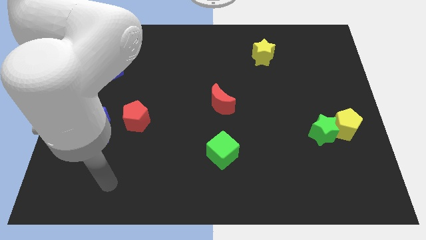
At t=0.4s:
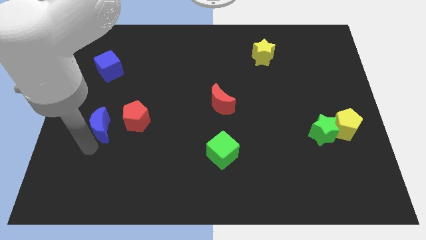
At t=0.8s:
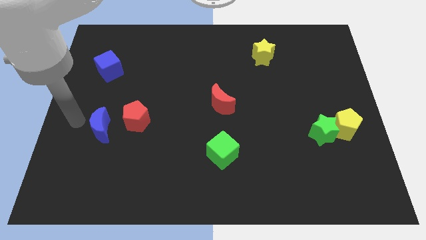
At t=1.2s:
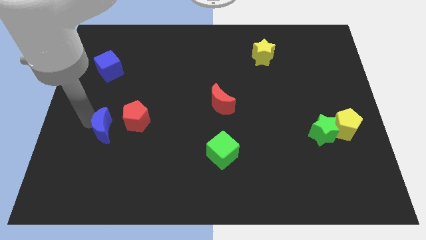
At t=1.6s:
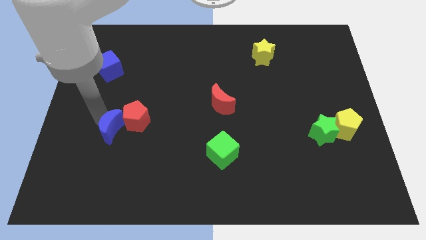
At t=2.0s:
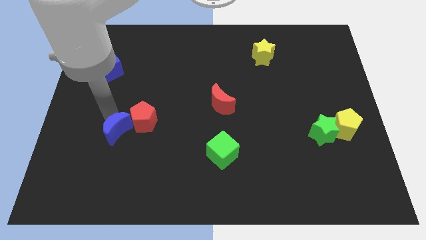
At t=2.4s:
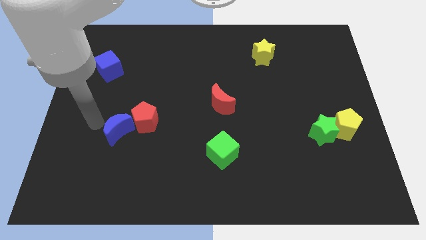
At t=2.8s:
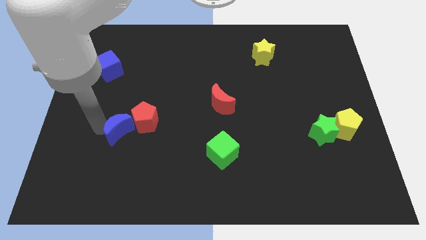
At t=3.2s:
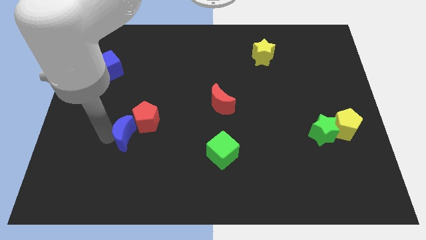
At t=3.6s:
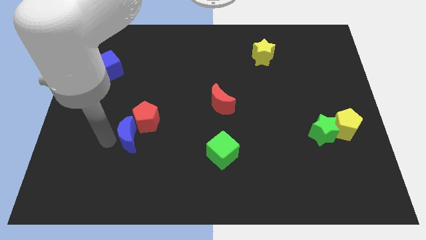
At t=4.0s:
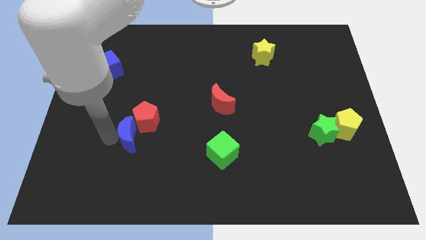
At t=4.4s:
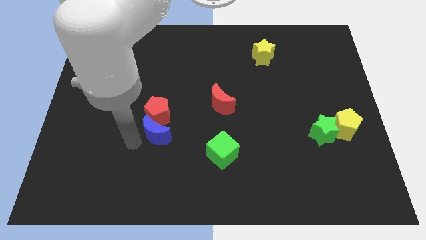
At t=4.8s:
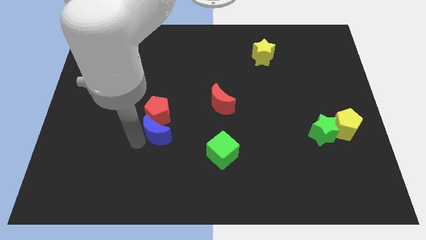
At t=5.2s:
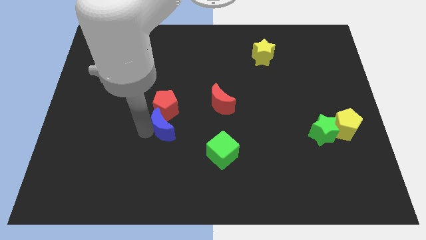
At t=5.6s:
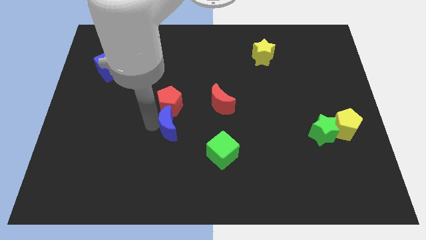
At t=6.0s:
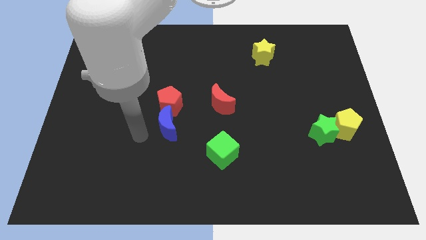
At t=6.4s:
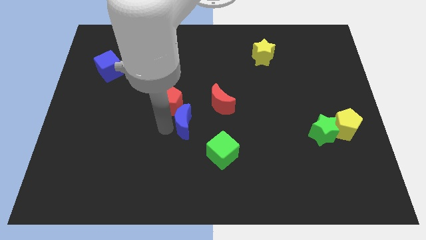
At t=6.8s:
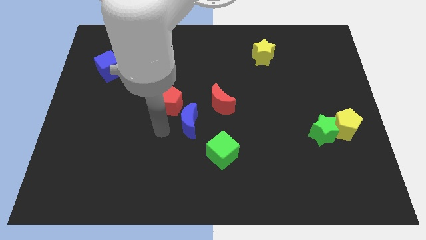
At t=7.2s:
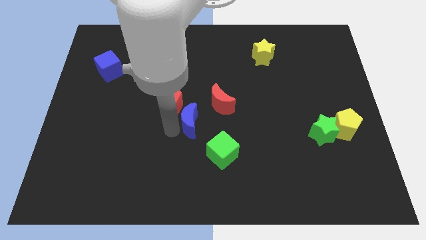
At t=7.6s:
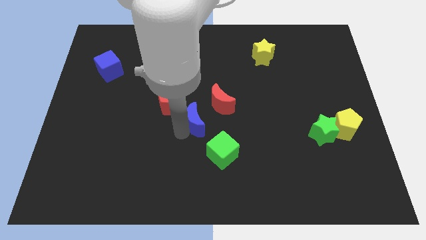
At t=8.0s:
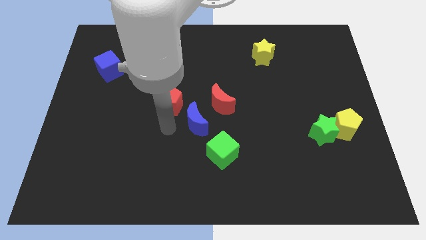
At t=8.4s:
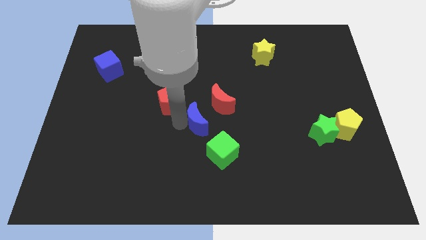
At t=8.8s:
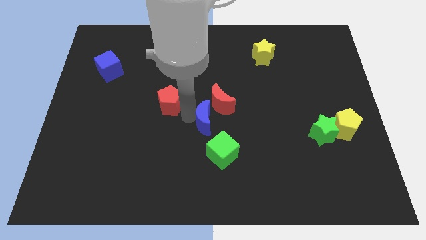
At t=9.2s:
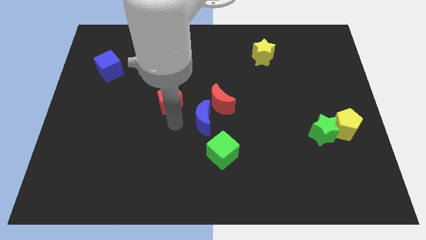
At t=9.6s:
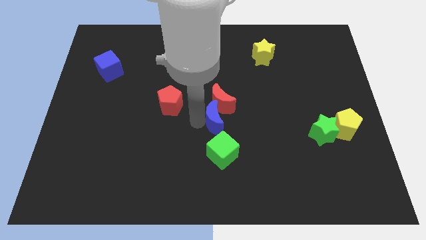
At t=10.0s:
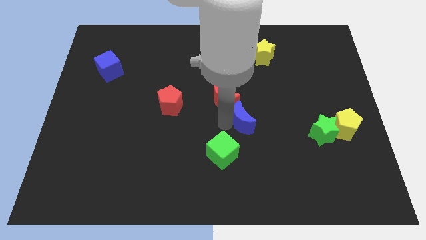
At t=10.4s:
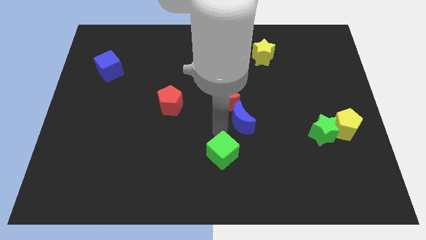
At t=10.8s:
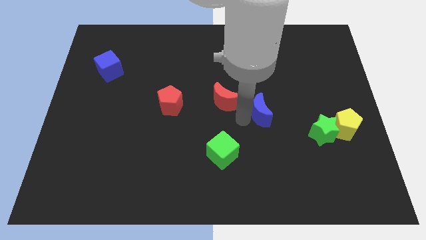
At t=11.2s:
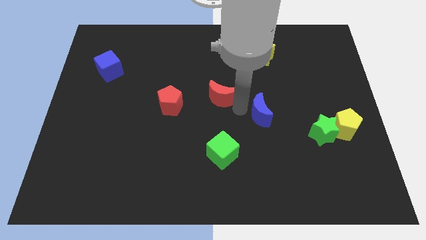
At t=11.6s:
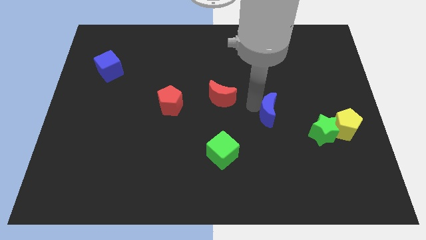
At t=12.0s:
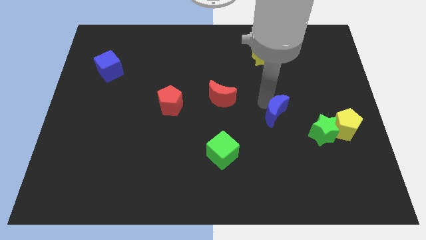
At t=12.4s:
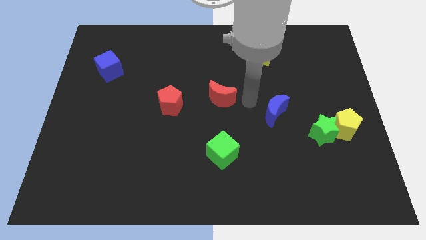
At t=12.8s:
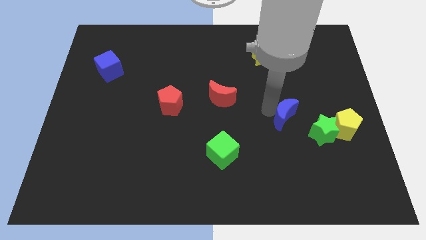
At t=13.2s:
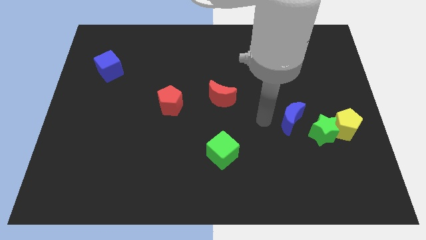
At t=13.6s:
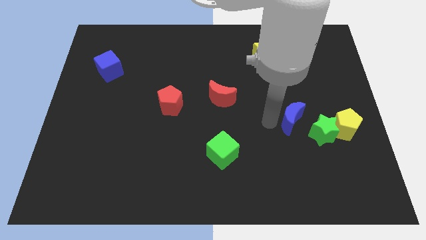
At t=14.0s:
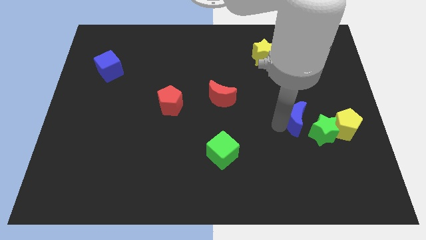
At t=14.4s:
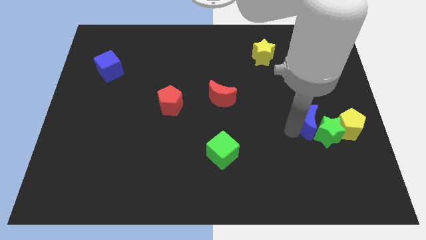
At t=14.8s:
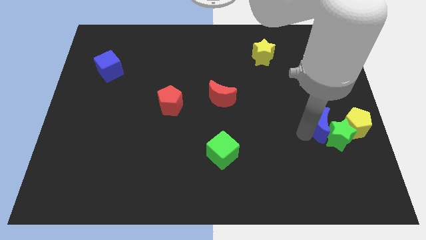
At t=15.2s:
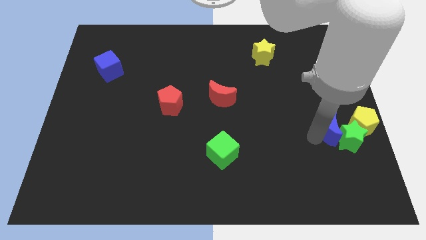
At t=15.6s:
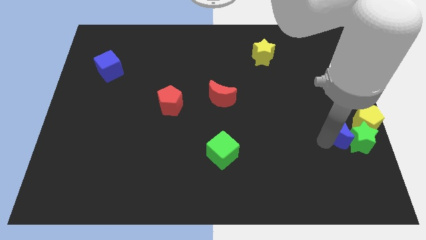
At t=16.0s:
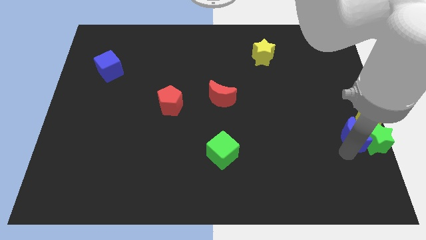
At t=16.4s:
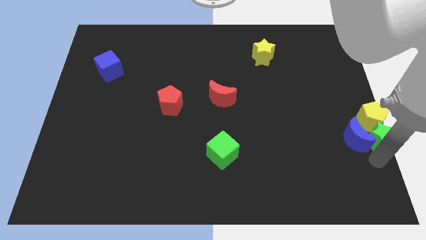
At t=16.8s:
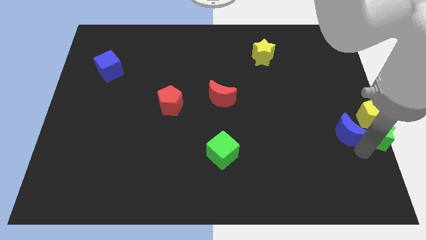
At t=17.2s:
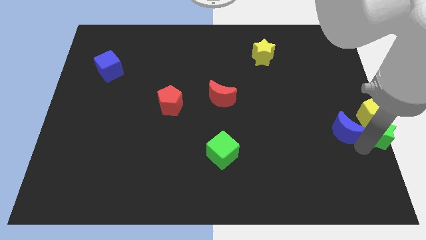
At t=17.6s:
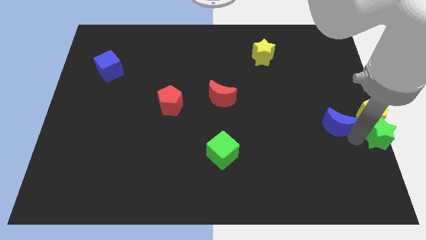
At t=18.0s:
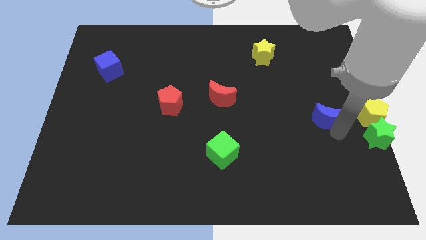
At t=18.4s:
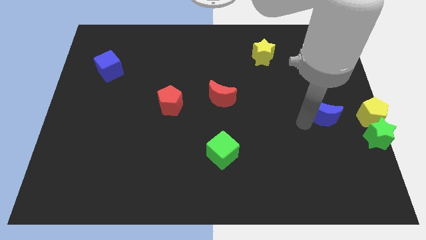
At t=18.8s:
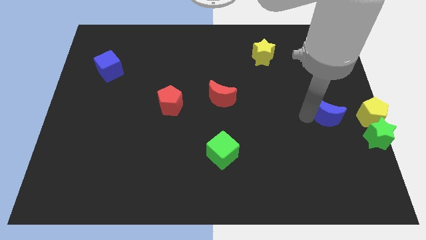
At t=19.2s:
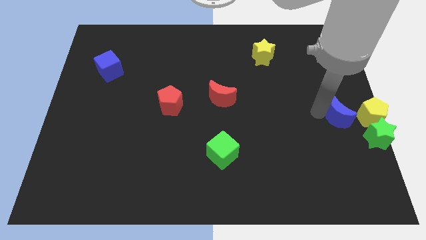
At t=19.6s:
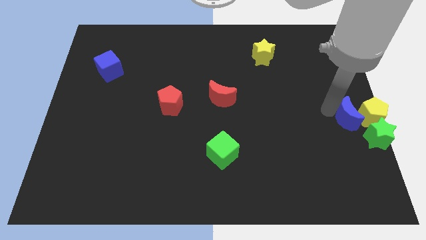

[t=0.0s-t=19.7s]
put the blue moon close to the yellow pentagon

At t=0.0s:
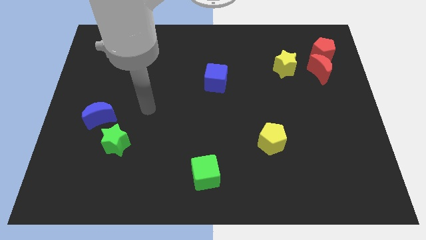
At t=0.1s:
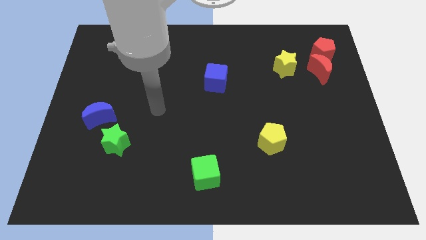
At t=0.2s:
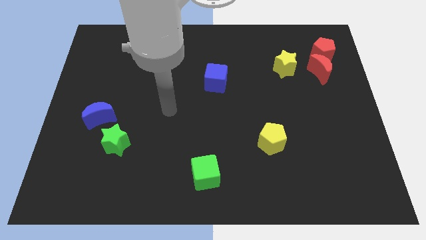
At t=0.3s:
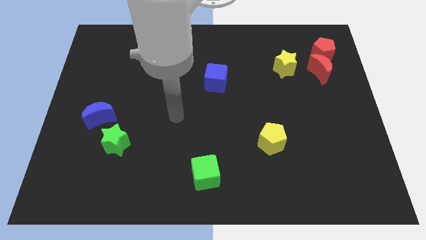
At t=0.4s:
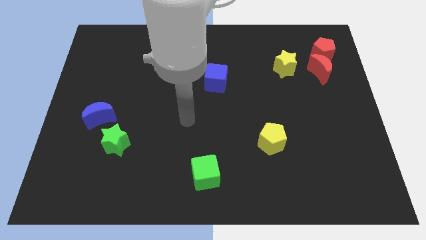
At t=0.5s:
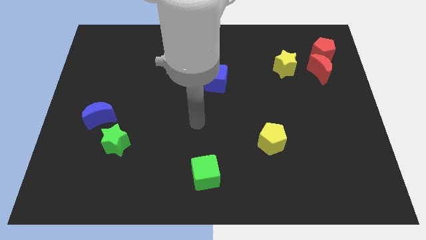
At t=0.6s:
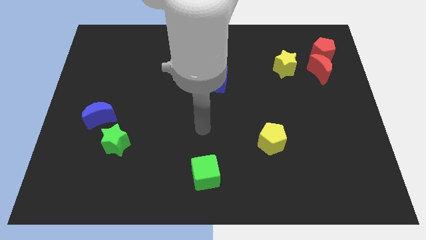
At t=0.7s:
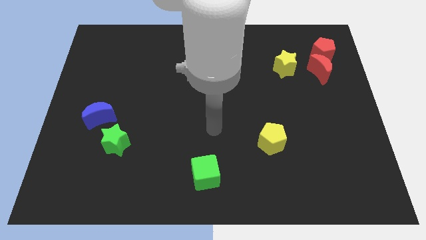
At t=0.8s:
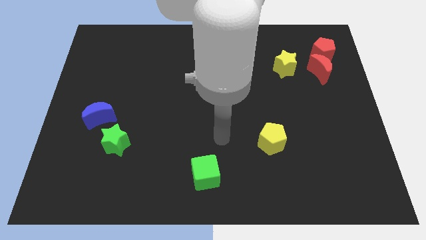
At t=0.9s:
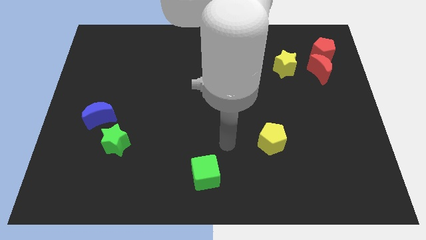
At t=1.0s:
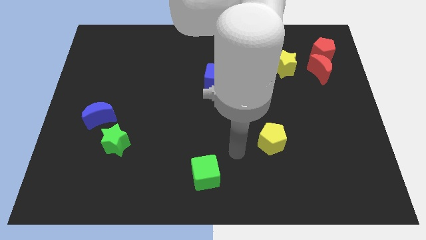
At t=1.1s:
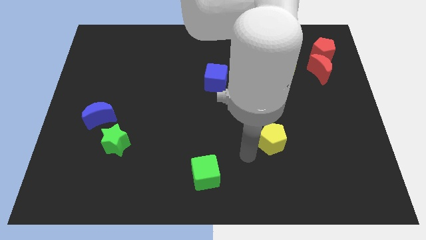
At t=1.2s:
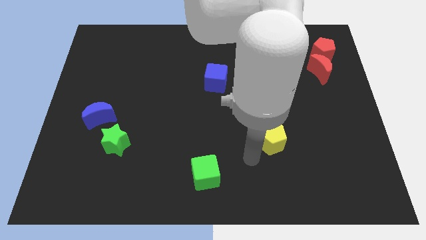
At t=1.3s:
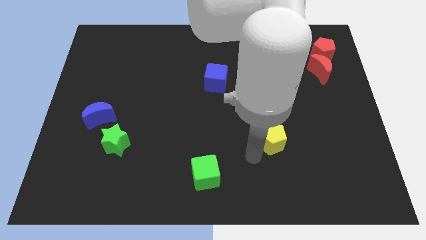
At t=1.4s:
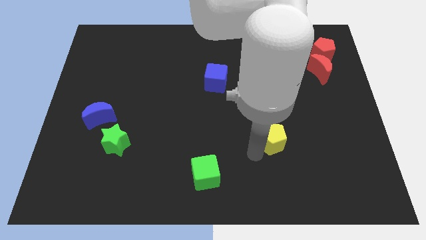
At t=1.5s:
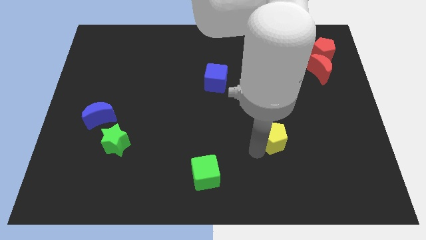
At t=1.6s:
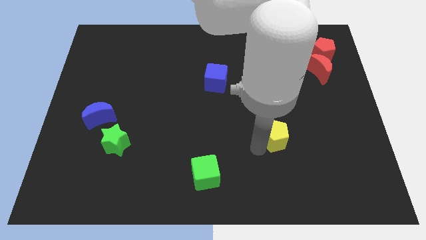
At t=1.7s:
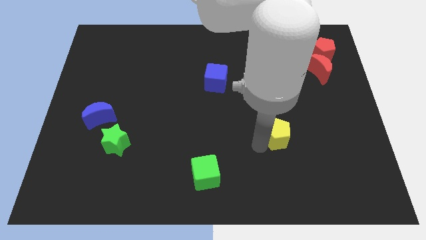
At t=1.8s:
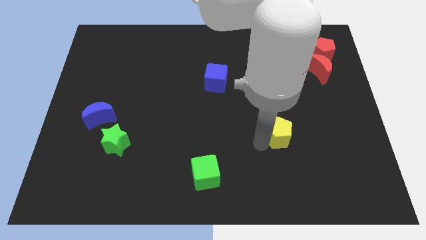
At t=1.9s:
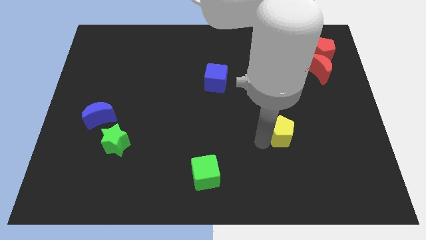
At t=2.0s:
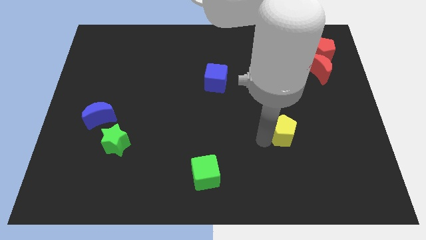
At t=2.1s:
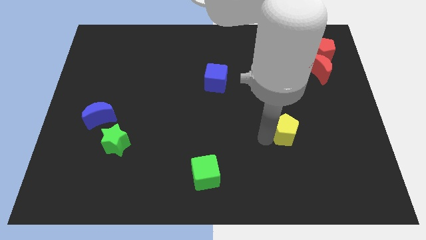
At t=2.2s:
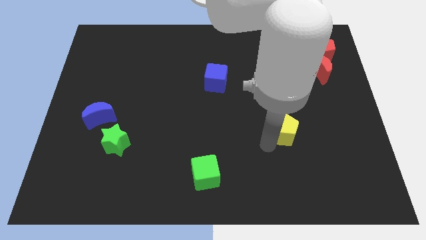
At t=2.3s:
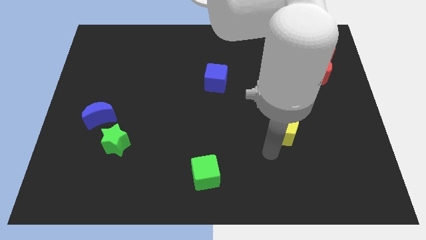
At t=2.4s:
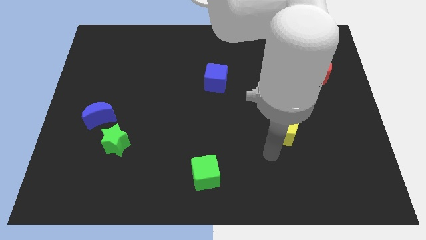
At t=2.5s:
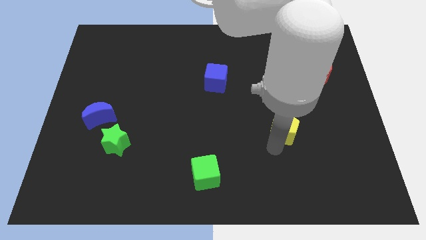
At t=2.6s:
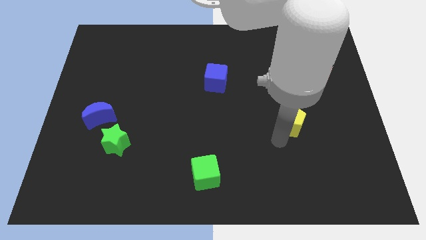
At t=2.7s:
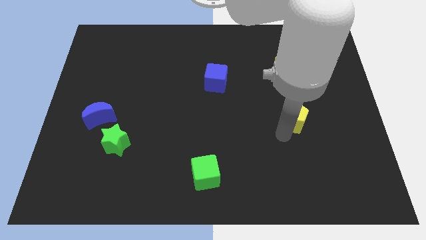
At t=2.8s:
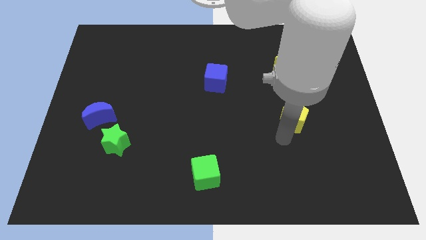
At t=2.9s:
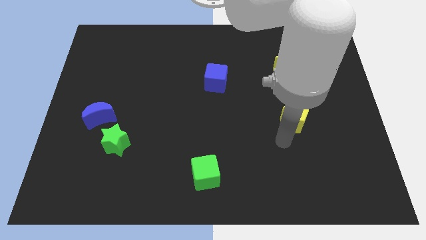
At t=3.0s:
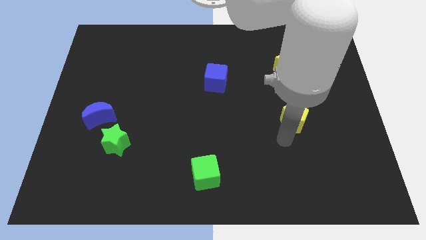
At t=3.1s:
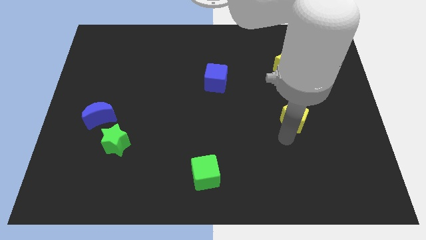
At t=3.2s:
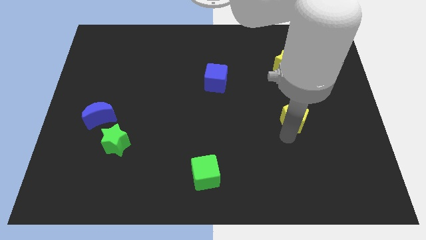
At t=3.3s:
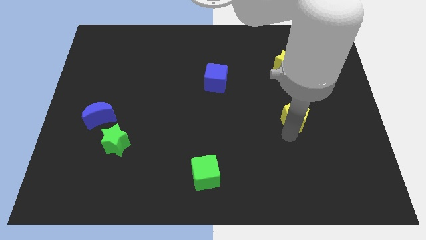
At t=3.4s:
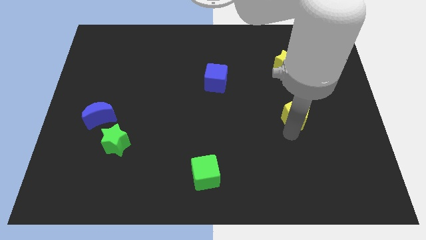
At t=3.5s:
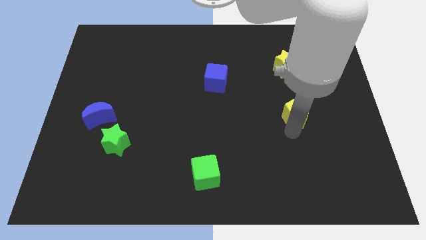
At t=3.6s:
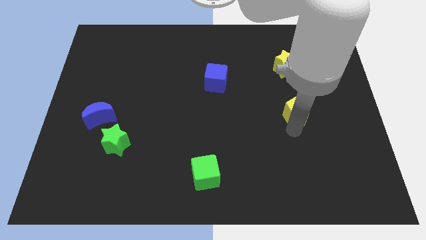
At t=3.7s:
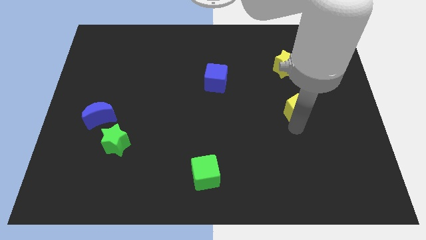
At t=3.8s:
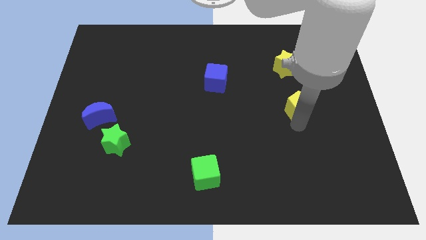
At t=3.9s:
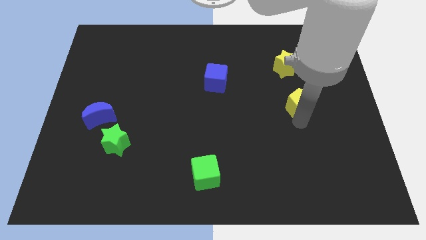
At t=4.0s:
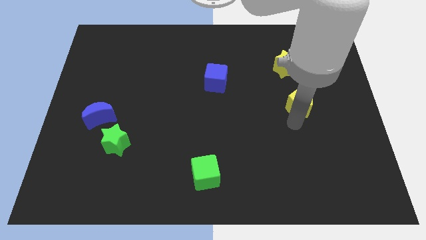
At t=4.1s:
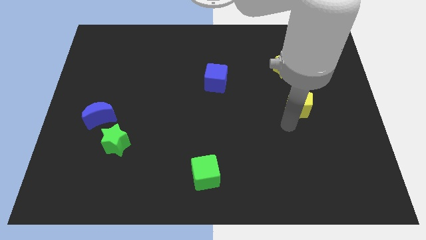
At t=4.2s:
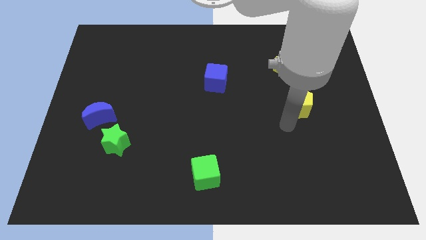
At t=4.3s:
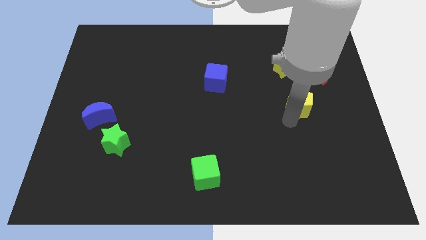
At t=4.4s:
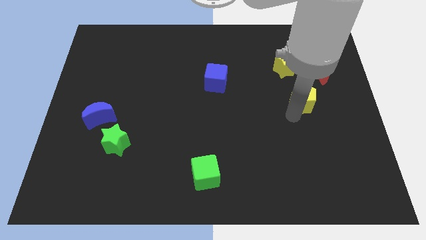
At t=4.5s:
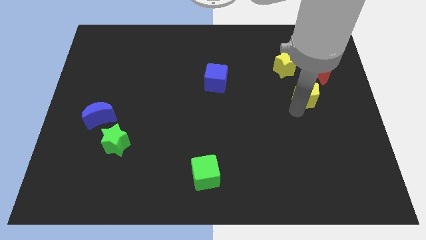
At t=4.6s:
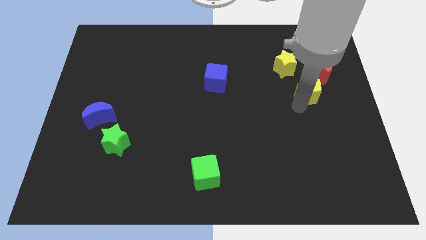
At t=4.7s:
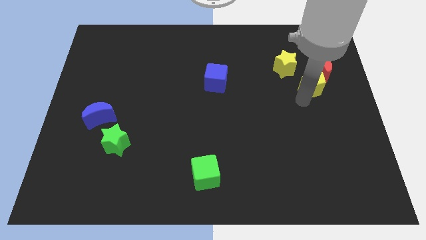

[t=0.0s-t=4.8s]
push the yellow pentagon towards the red moon
